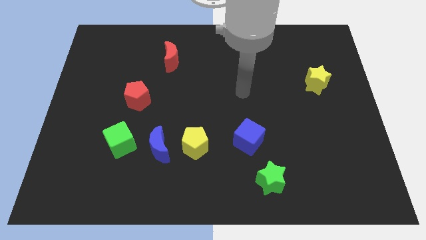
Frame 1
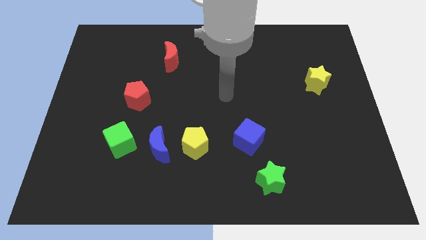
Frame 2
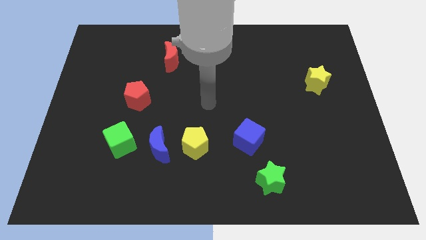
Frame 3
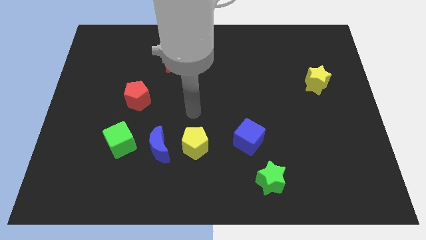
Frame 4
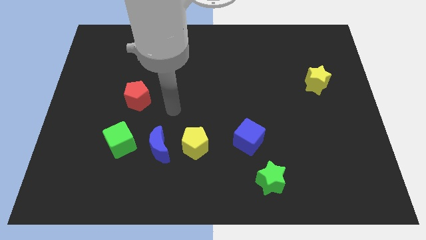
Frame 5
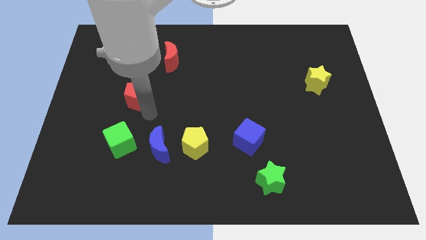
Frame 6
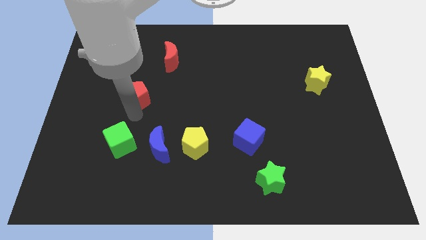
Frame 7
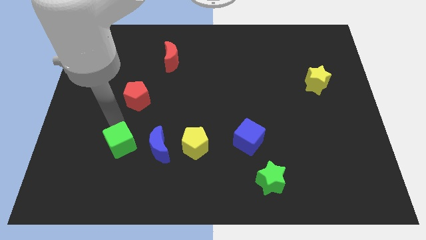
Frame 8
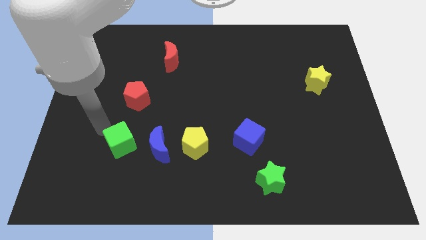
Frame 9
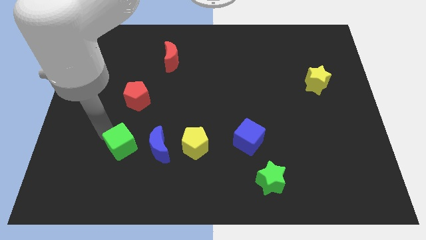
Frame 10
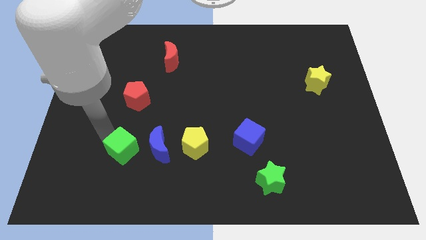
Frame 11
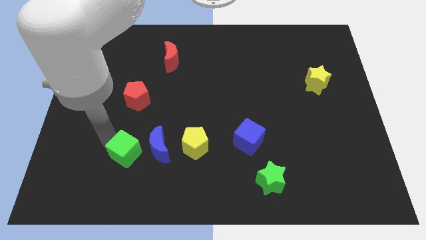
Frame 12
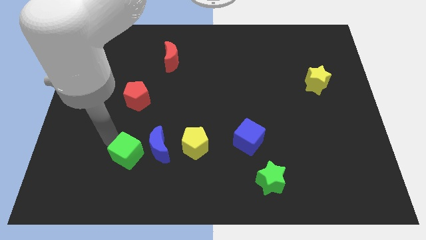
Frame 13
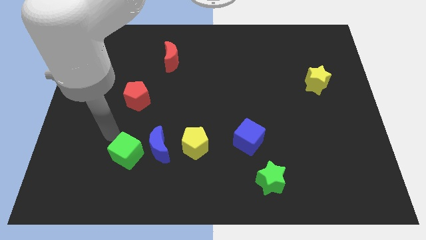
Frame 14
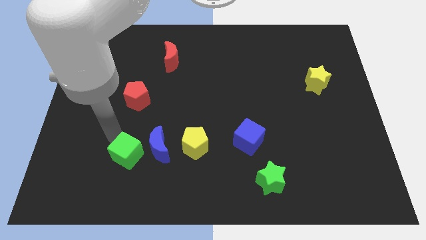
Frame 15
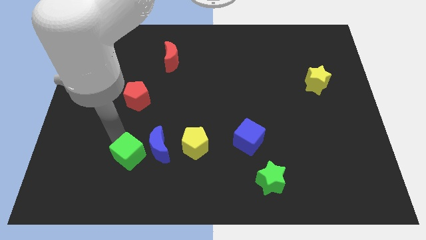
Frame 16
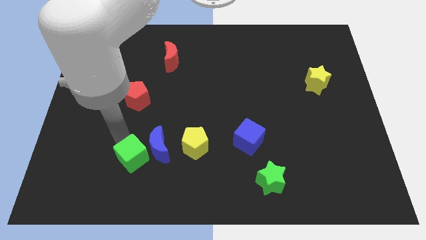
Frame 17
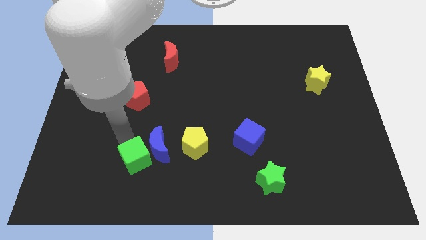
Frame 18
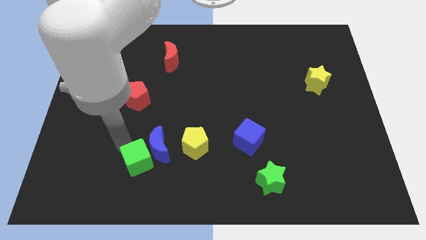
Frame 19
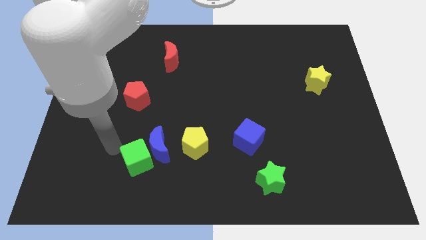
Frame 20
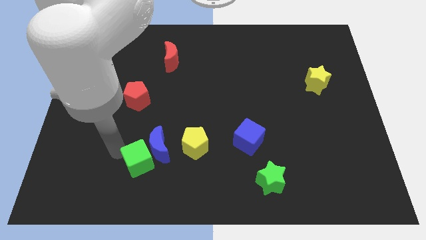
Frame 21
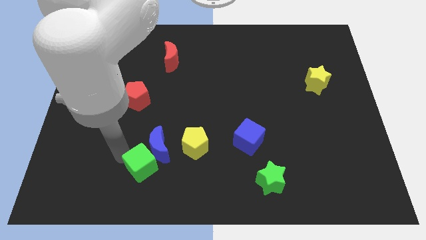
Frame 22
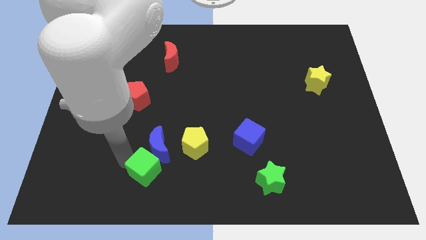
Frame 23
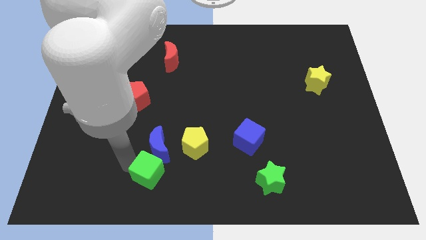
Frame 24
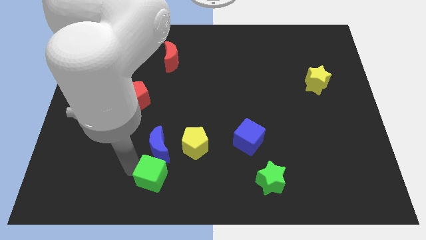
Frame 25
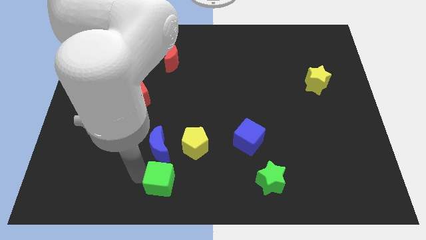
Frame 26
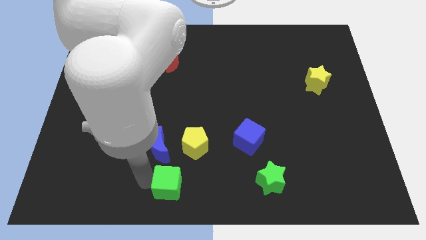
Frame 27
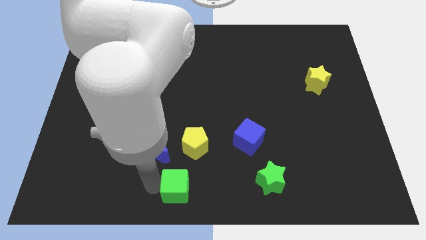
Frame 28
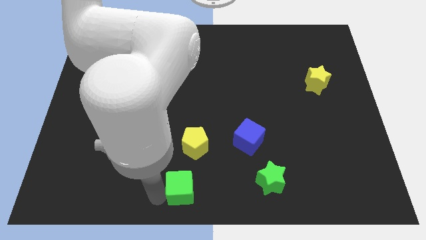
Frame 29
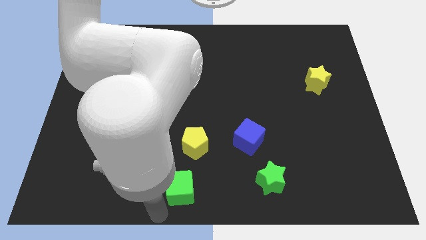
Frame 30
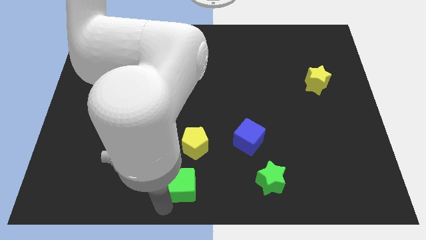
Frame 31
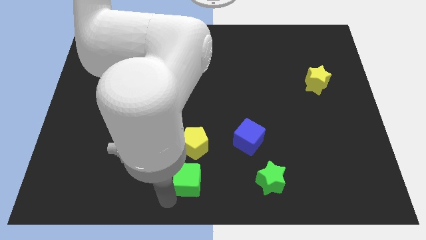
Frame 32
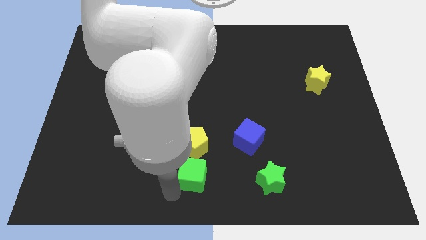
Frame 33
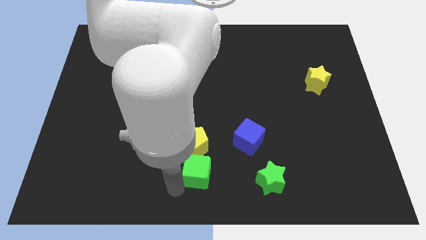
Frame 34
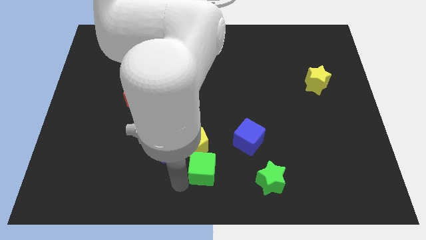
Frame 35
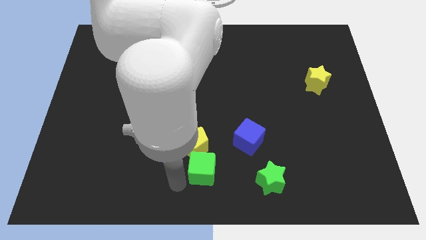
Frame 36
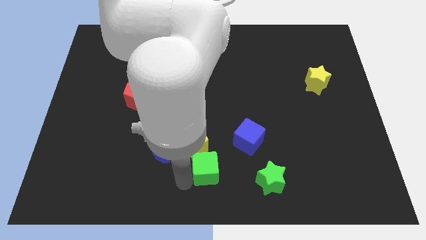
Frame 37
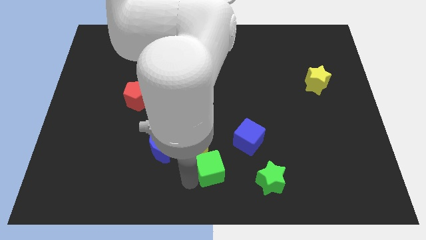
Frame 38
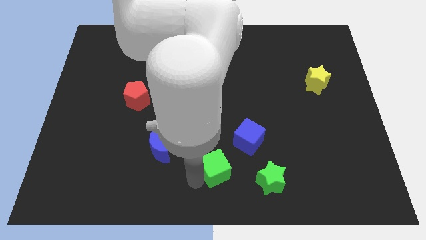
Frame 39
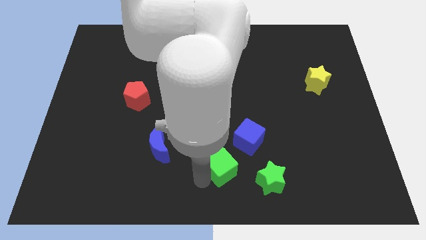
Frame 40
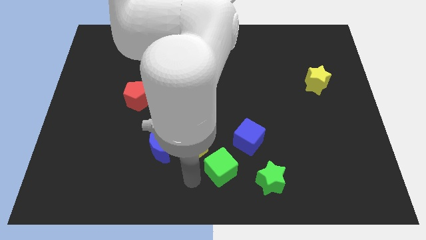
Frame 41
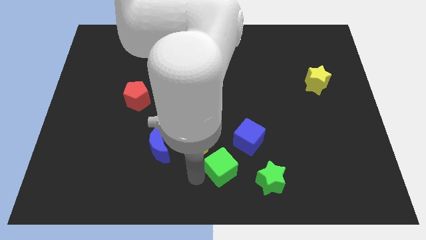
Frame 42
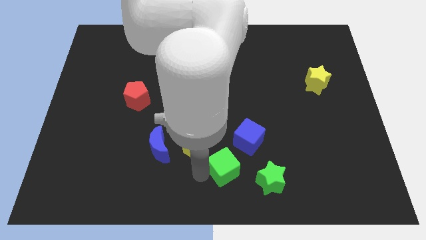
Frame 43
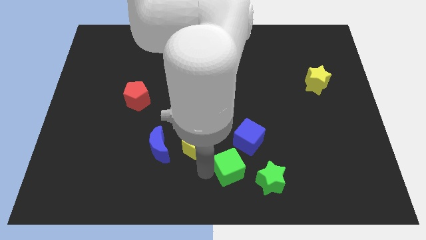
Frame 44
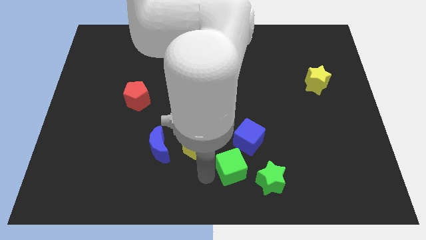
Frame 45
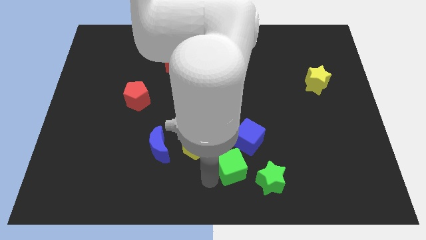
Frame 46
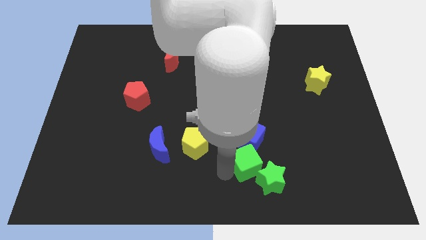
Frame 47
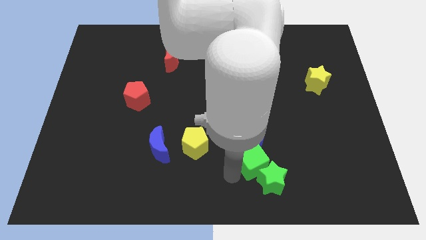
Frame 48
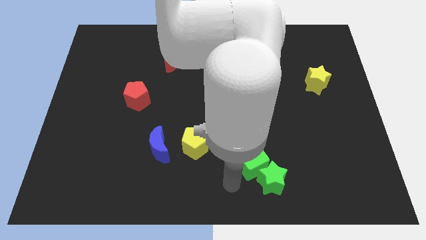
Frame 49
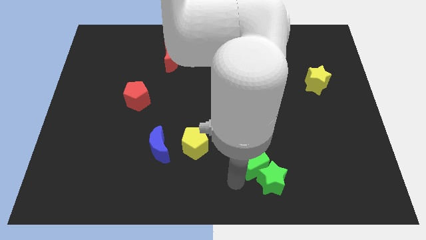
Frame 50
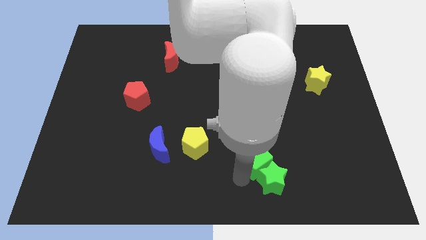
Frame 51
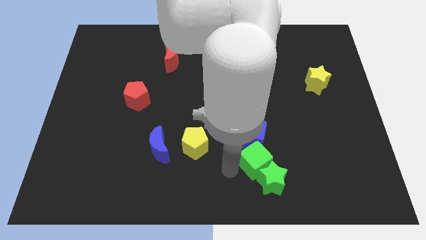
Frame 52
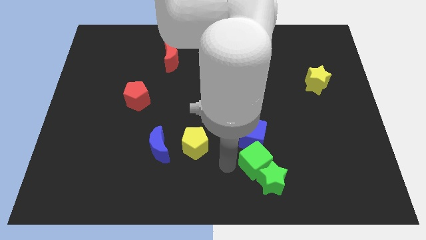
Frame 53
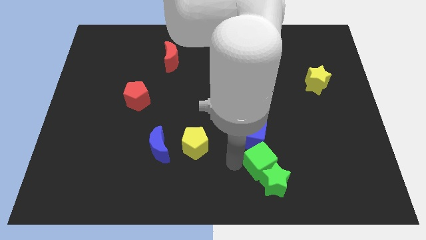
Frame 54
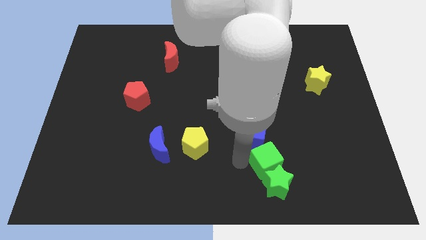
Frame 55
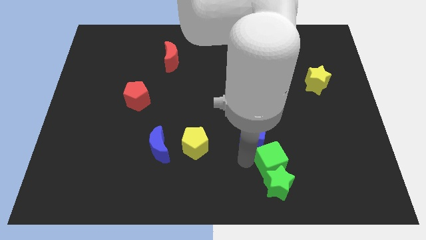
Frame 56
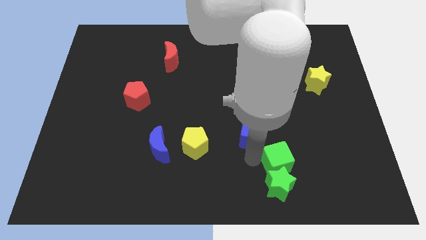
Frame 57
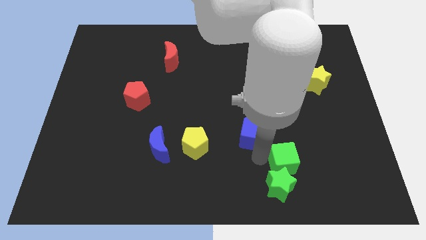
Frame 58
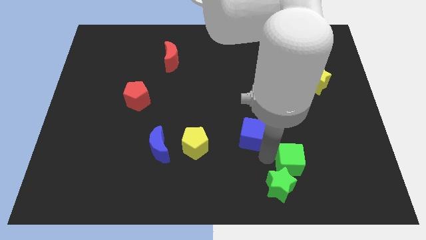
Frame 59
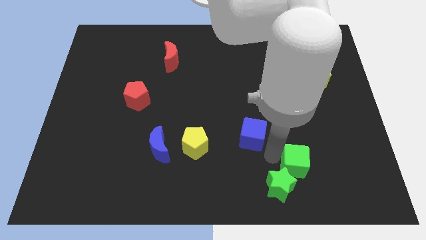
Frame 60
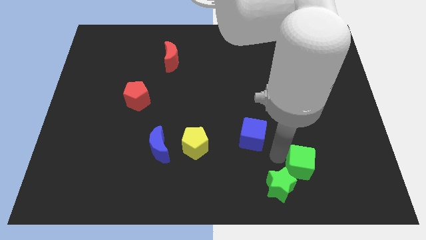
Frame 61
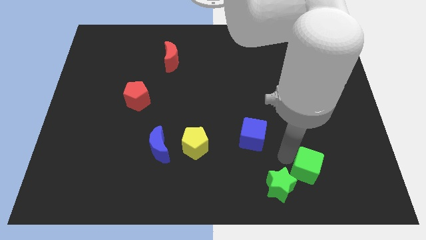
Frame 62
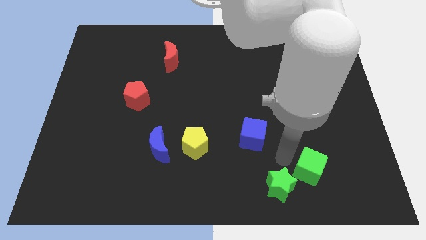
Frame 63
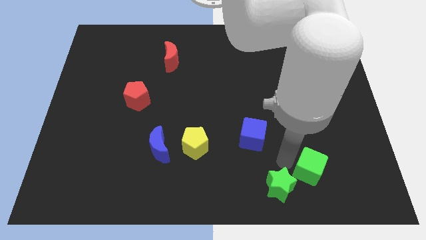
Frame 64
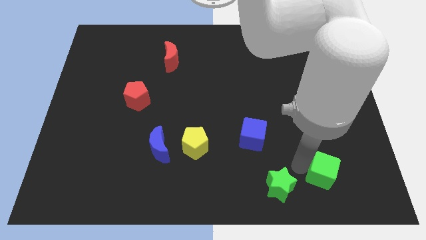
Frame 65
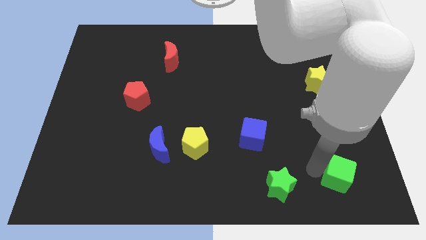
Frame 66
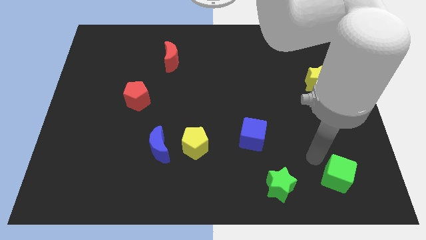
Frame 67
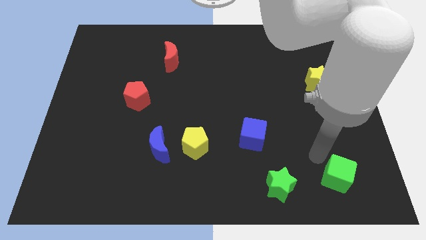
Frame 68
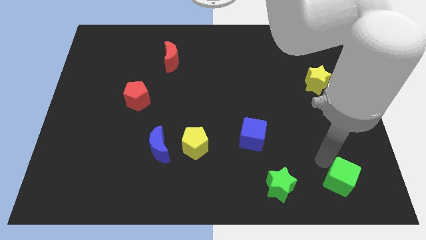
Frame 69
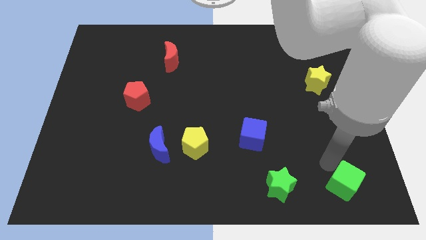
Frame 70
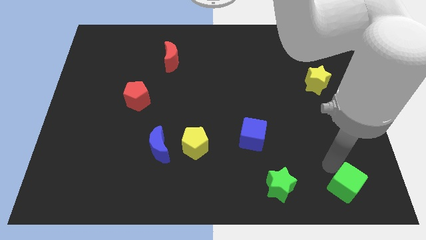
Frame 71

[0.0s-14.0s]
move the green cube to the bottom right of the board
